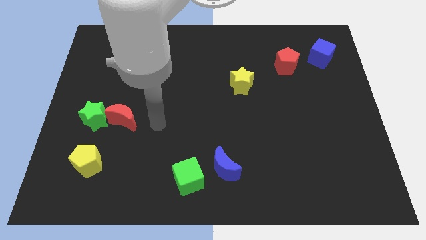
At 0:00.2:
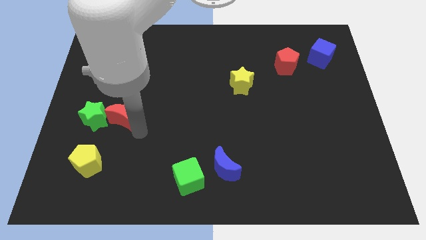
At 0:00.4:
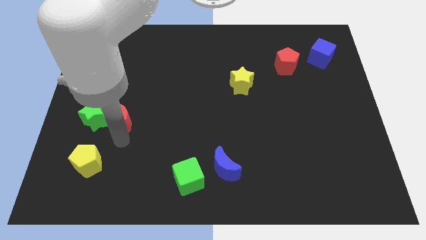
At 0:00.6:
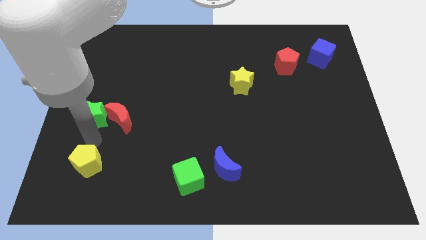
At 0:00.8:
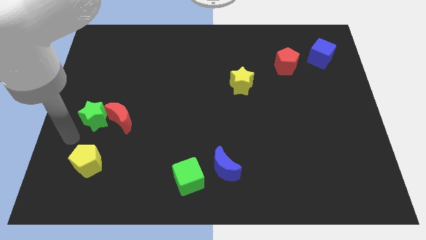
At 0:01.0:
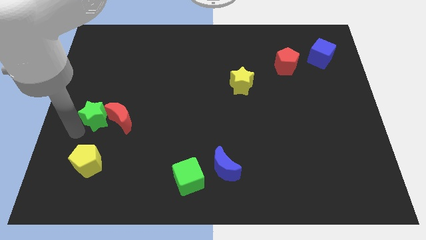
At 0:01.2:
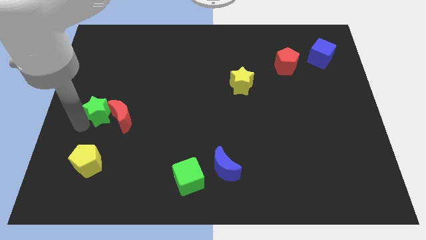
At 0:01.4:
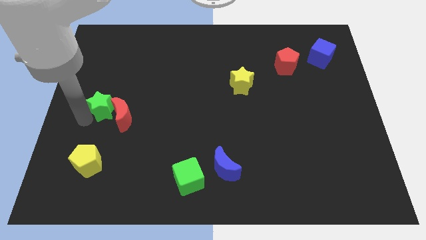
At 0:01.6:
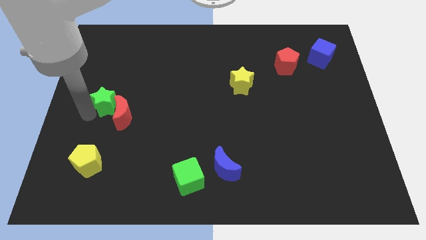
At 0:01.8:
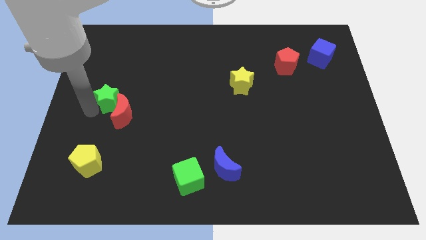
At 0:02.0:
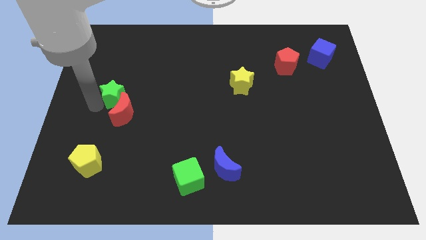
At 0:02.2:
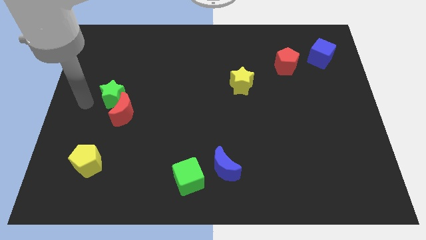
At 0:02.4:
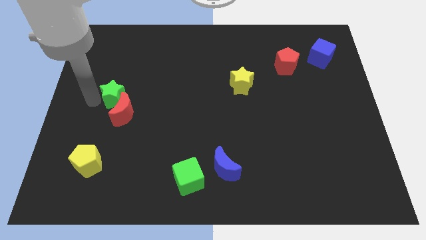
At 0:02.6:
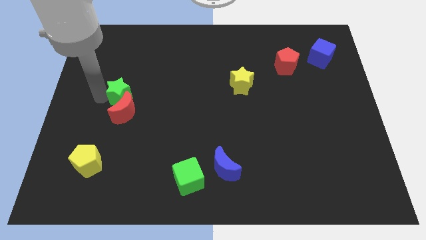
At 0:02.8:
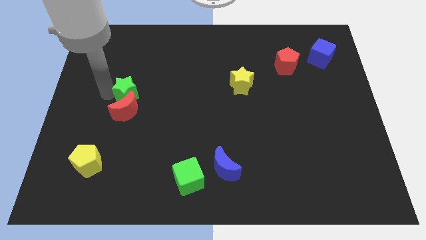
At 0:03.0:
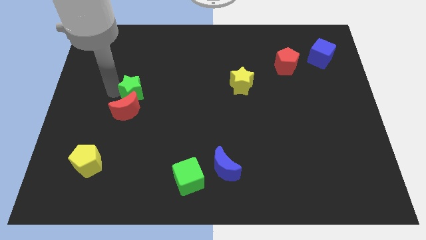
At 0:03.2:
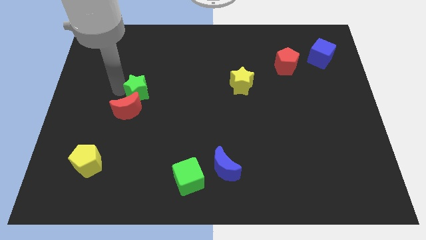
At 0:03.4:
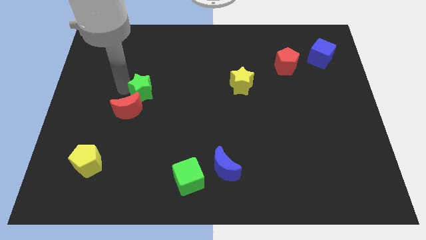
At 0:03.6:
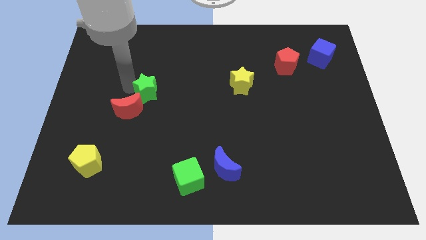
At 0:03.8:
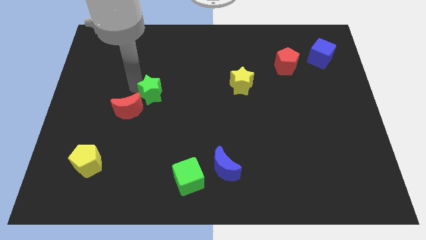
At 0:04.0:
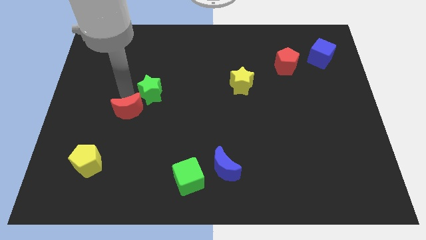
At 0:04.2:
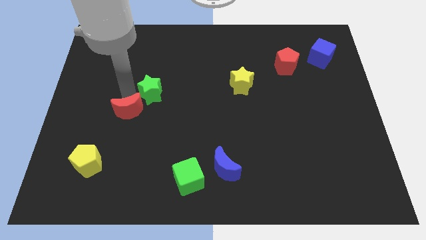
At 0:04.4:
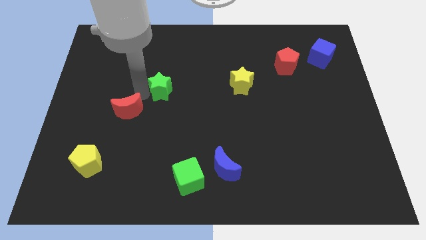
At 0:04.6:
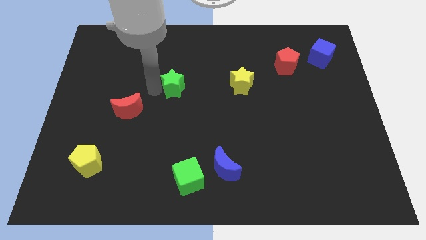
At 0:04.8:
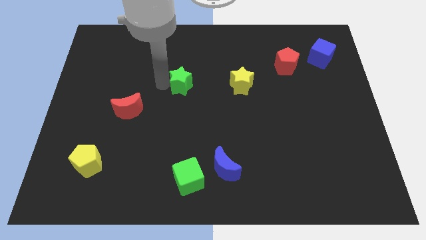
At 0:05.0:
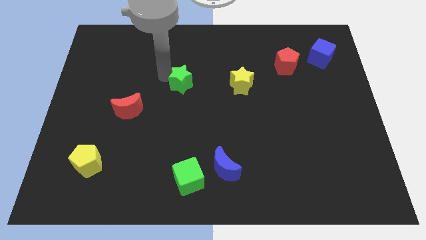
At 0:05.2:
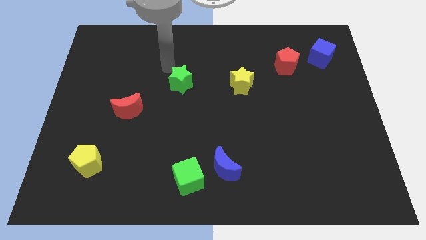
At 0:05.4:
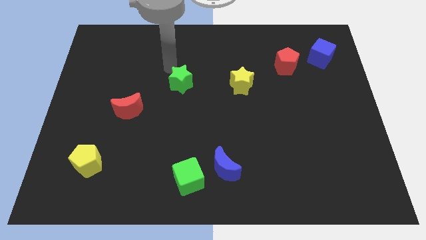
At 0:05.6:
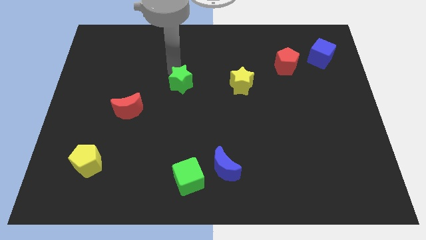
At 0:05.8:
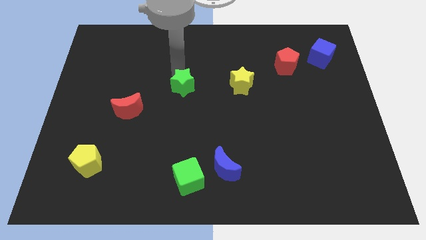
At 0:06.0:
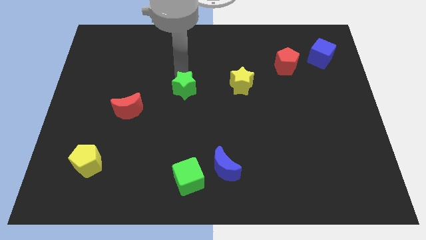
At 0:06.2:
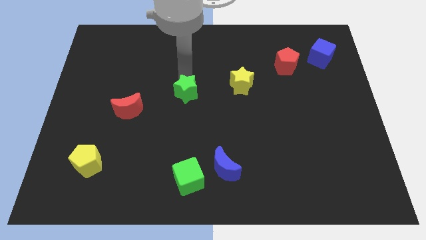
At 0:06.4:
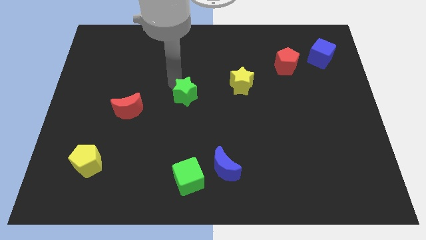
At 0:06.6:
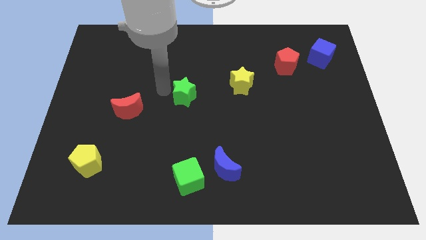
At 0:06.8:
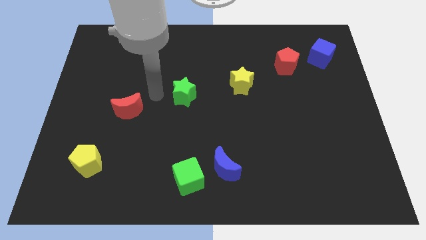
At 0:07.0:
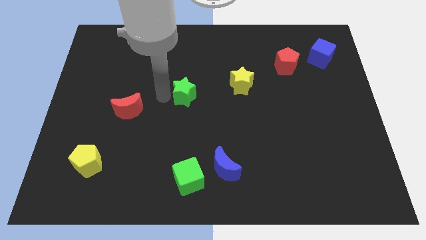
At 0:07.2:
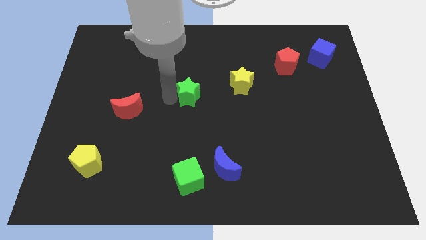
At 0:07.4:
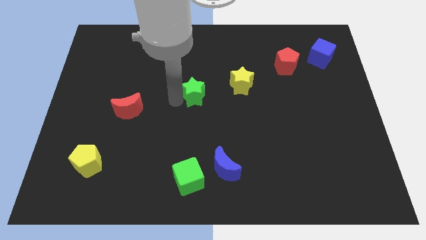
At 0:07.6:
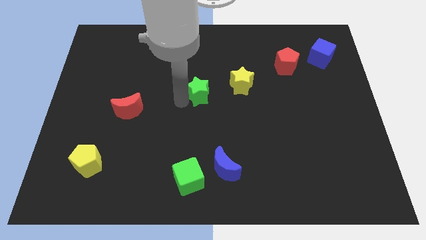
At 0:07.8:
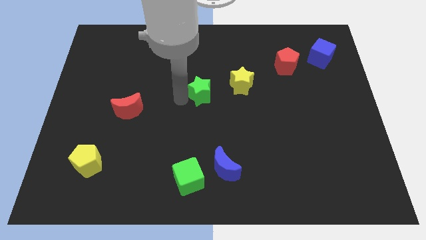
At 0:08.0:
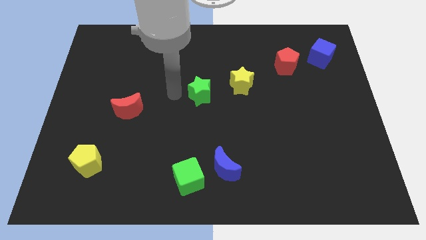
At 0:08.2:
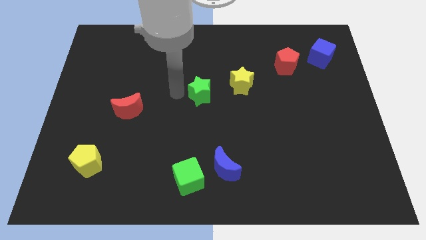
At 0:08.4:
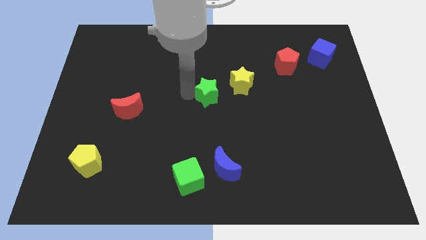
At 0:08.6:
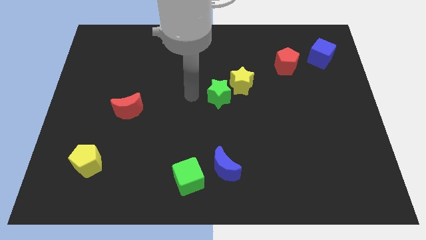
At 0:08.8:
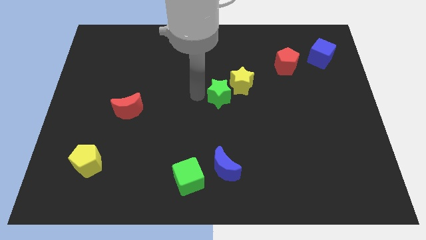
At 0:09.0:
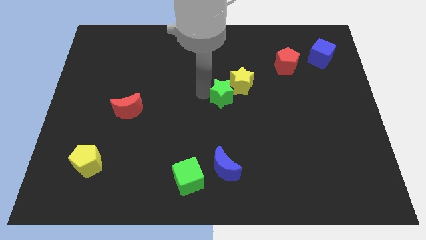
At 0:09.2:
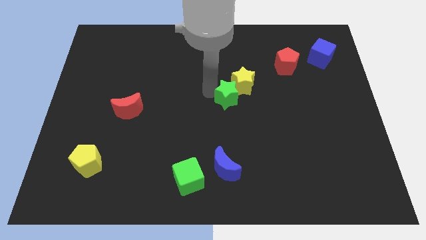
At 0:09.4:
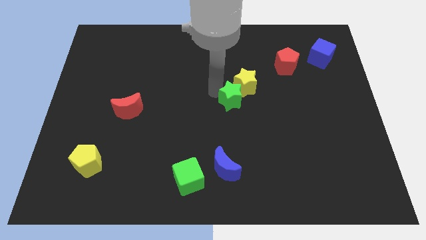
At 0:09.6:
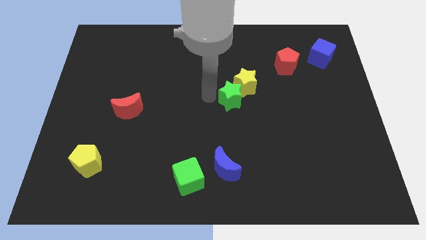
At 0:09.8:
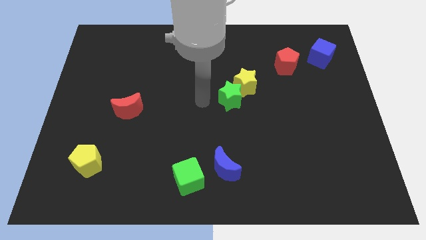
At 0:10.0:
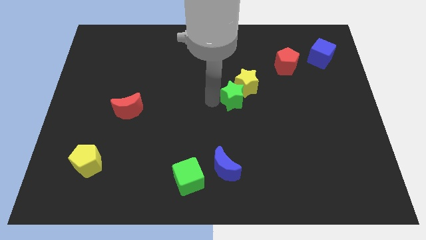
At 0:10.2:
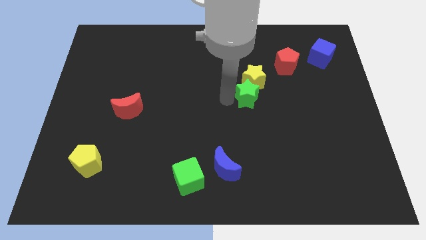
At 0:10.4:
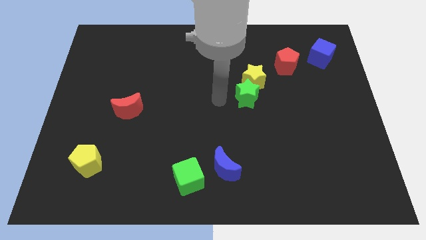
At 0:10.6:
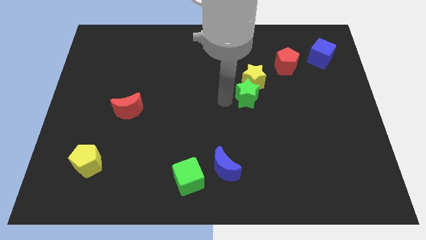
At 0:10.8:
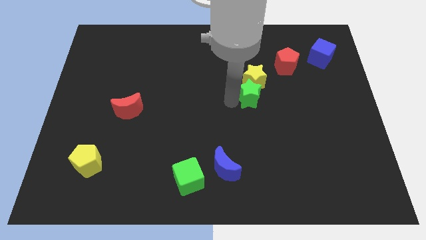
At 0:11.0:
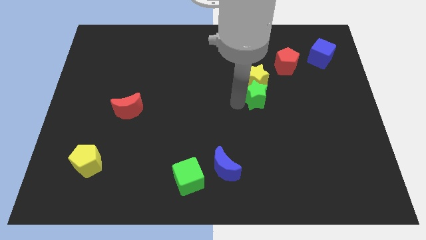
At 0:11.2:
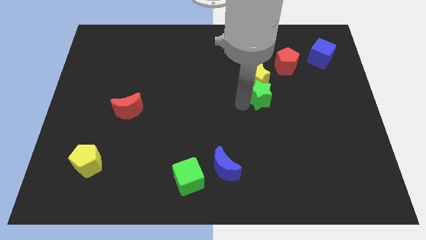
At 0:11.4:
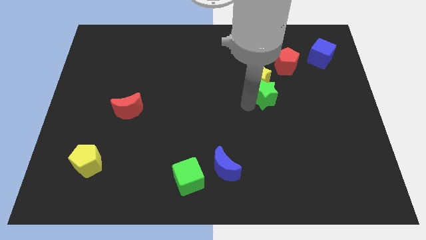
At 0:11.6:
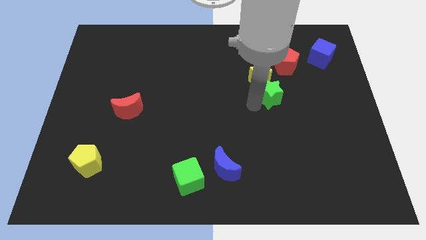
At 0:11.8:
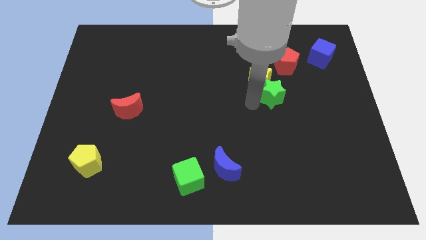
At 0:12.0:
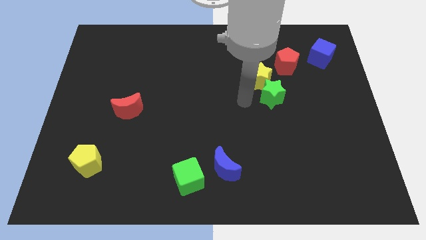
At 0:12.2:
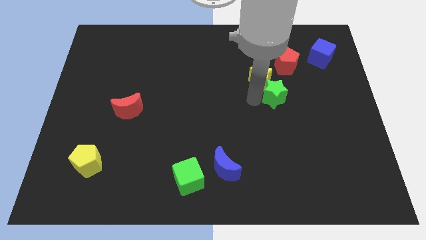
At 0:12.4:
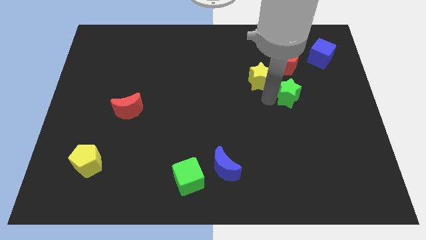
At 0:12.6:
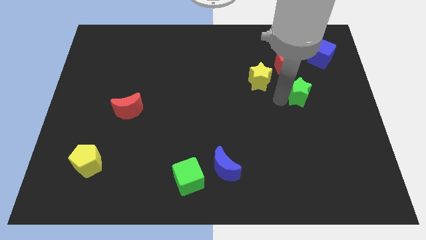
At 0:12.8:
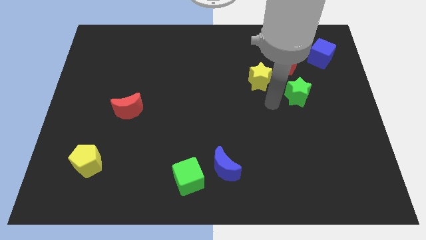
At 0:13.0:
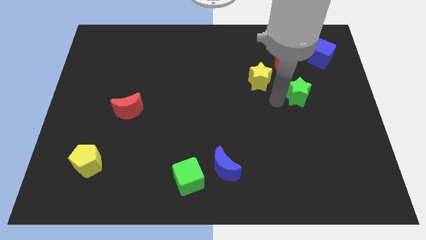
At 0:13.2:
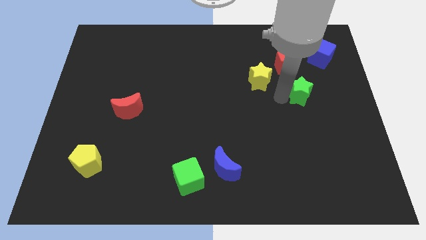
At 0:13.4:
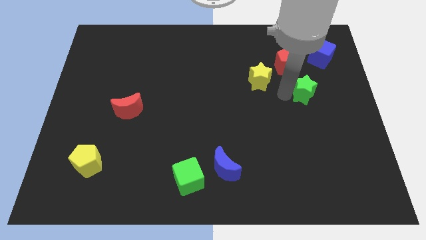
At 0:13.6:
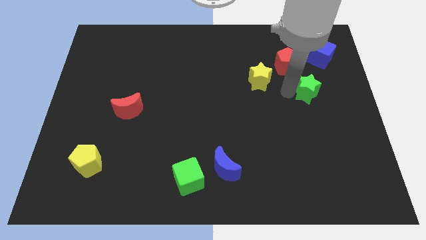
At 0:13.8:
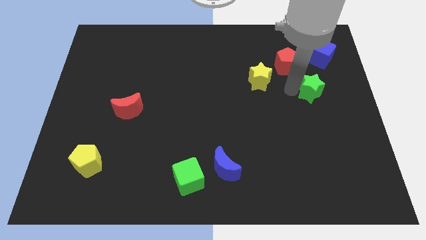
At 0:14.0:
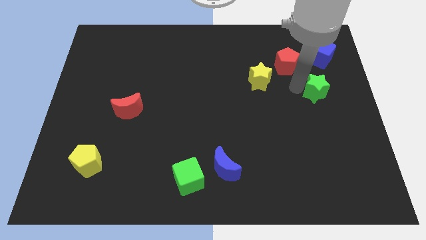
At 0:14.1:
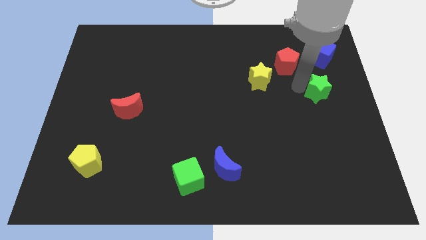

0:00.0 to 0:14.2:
push the green star to the right side
